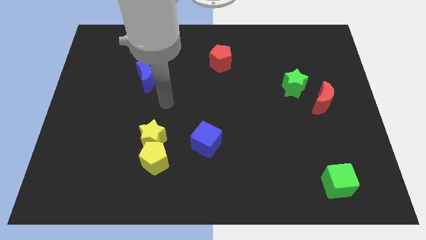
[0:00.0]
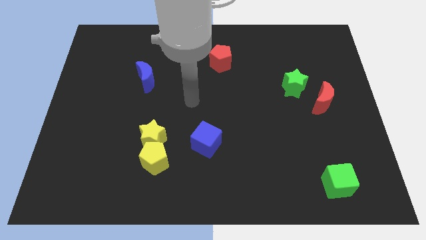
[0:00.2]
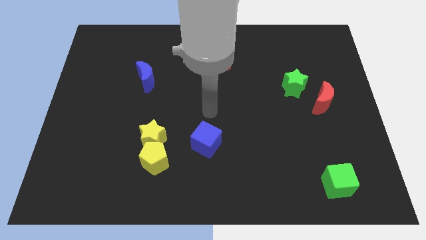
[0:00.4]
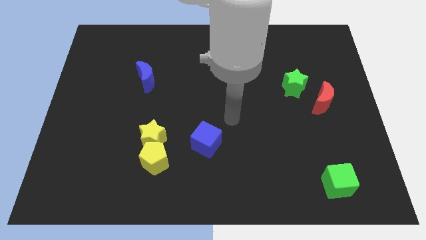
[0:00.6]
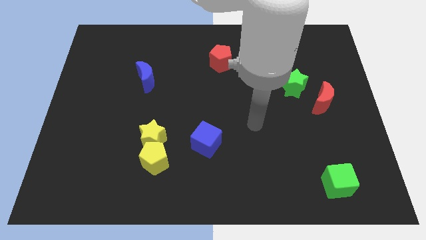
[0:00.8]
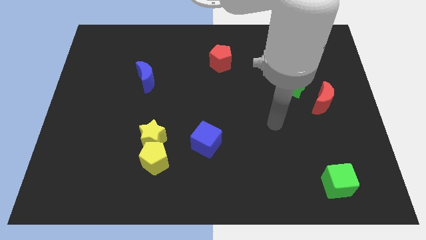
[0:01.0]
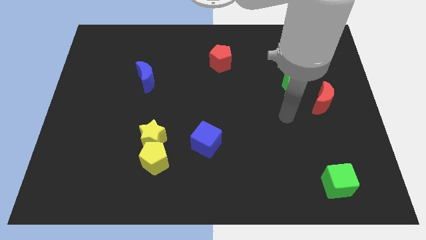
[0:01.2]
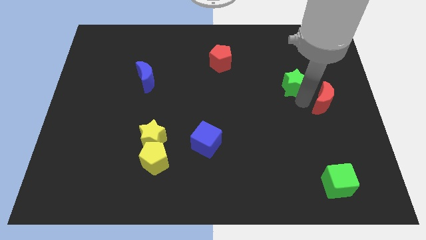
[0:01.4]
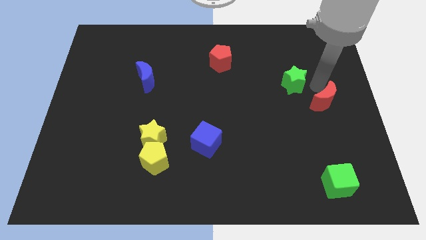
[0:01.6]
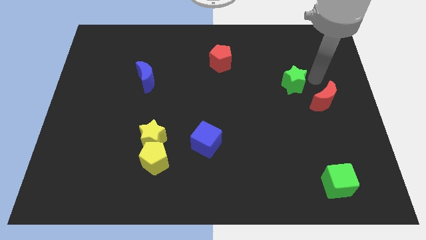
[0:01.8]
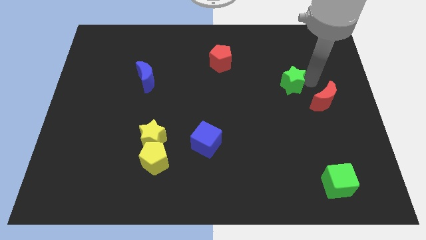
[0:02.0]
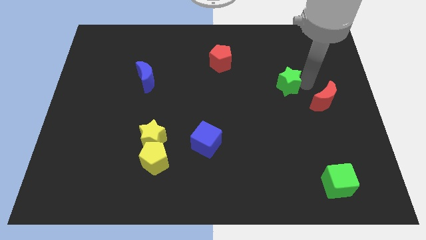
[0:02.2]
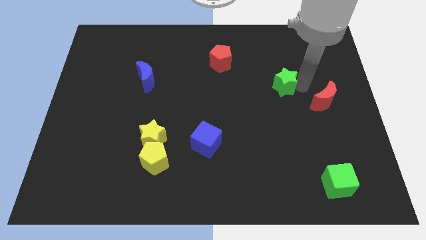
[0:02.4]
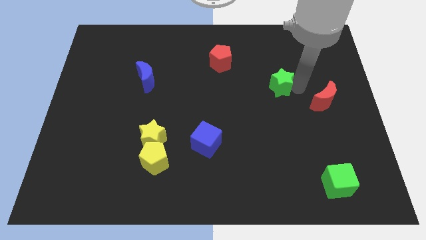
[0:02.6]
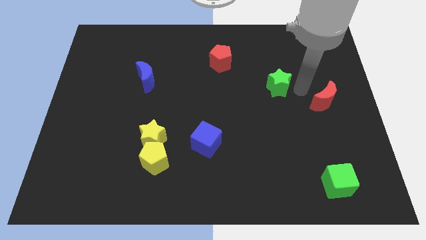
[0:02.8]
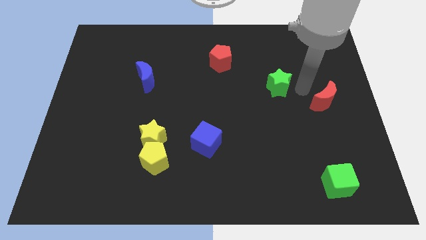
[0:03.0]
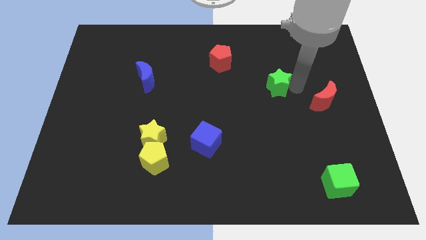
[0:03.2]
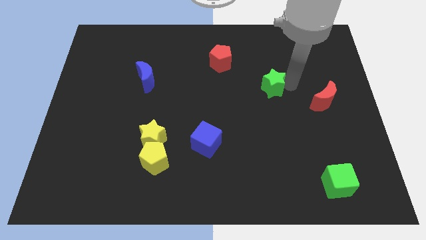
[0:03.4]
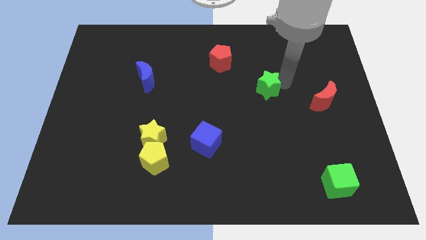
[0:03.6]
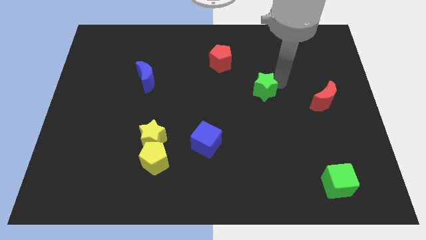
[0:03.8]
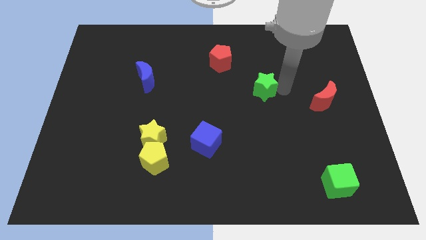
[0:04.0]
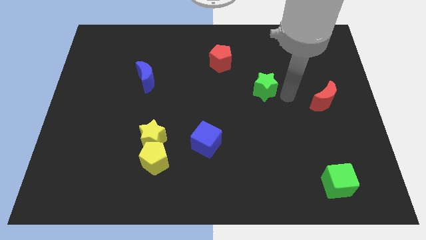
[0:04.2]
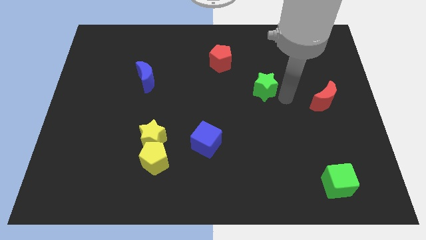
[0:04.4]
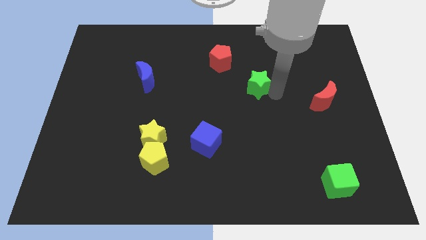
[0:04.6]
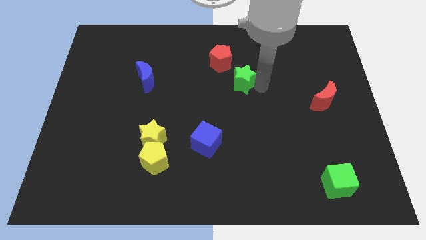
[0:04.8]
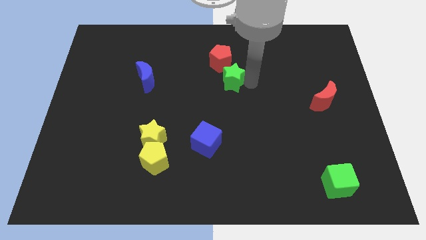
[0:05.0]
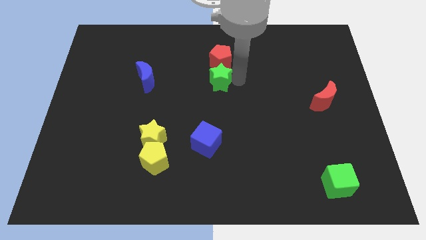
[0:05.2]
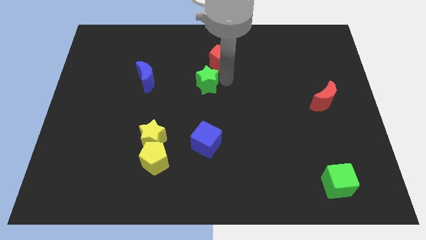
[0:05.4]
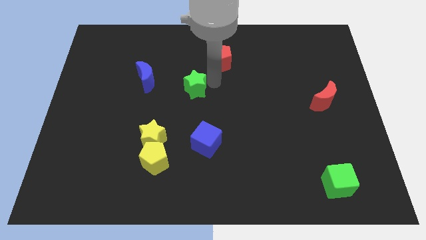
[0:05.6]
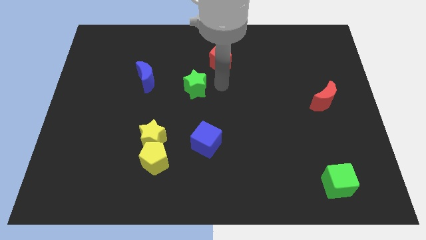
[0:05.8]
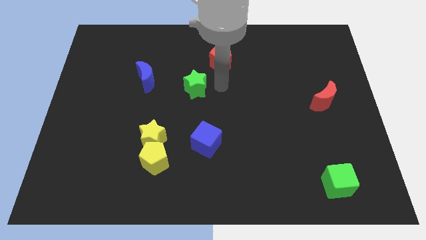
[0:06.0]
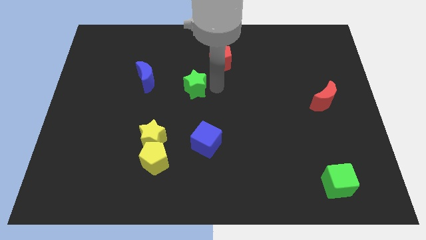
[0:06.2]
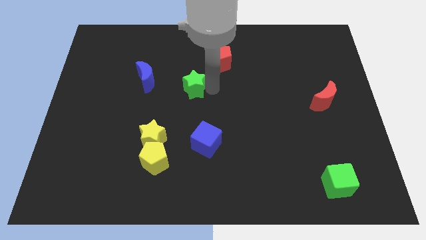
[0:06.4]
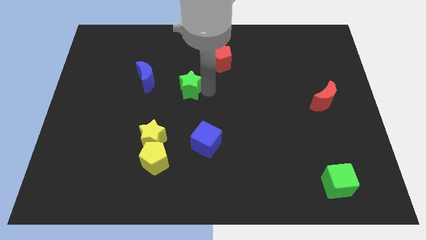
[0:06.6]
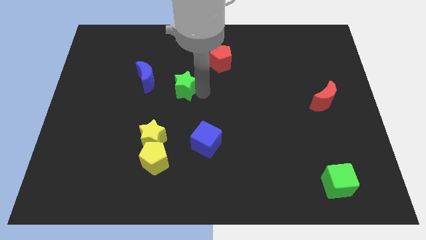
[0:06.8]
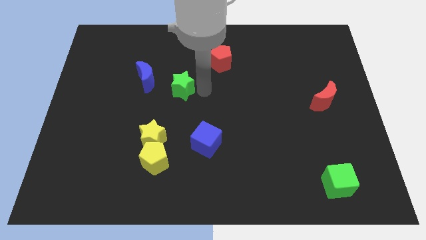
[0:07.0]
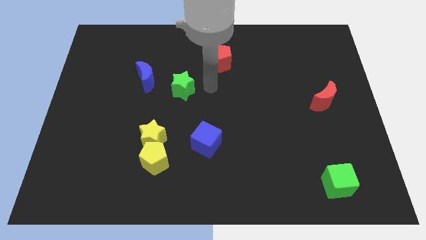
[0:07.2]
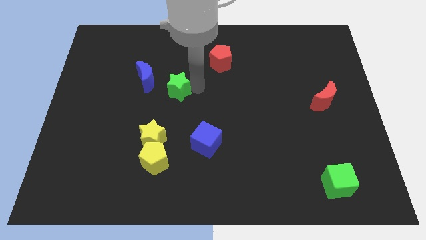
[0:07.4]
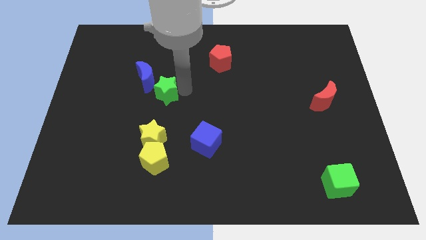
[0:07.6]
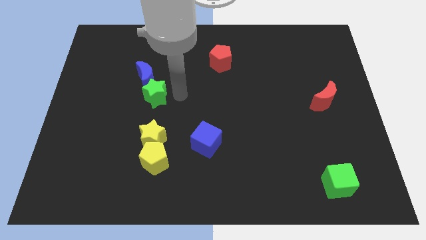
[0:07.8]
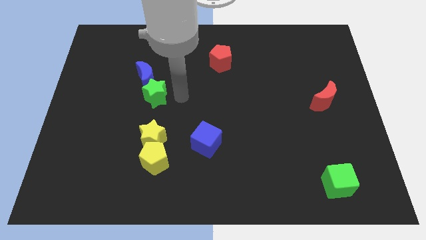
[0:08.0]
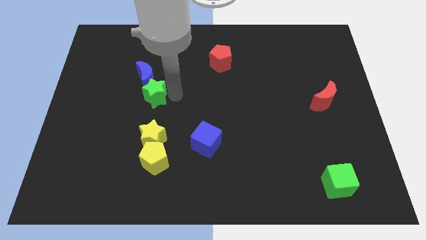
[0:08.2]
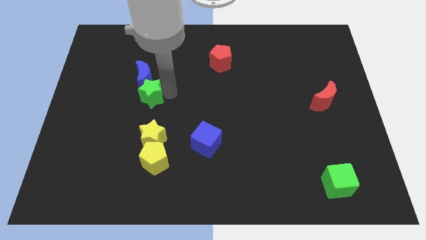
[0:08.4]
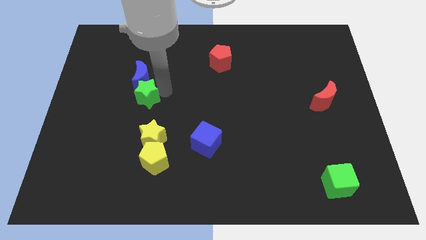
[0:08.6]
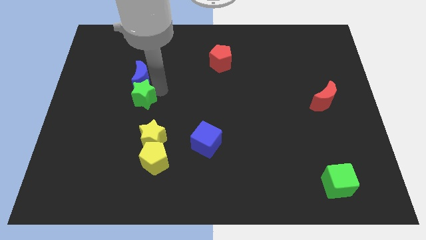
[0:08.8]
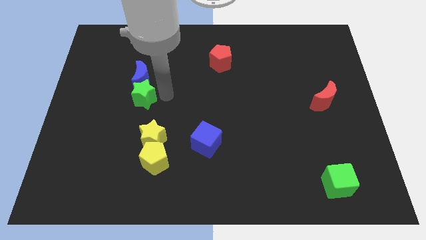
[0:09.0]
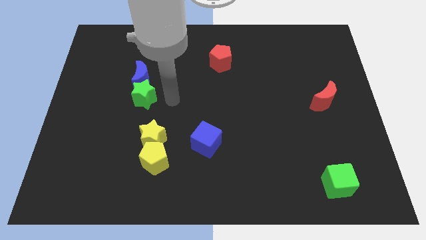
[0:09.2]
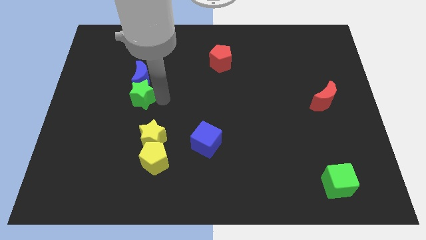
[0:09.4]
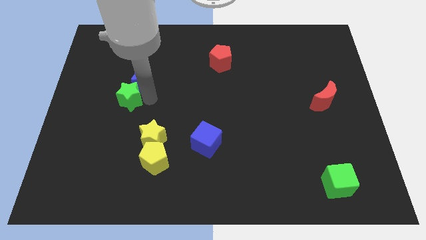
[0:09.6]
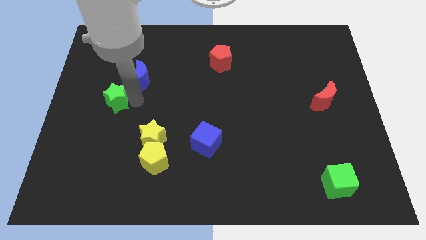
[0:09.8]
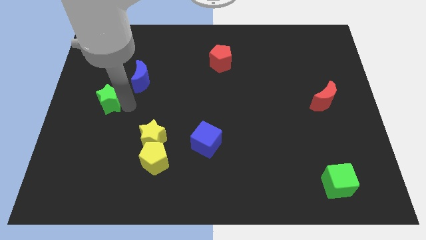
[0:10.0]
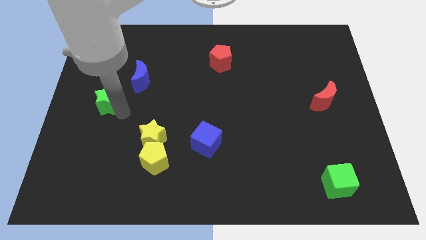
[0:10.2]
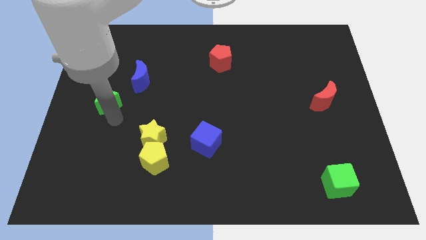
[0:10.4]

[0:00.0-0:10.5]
slide the green star to the left side

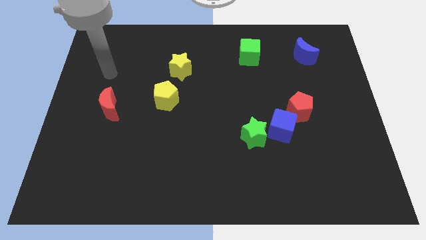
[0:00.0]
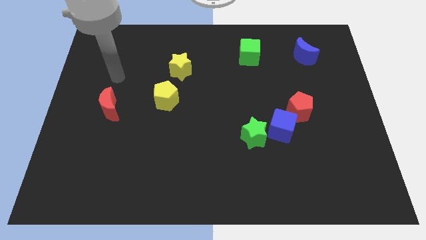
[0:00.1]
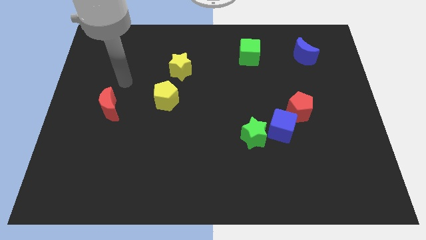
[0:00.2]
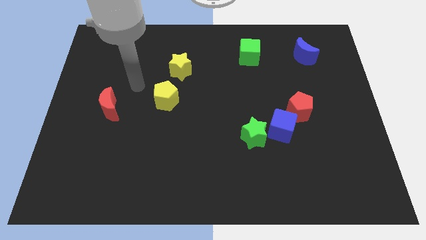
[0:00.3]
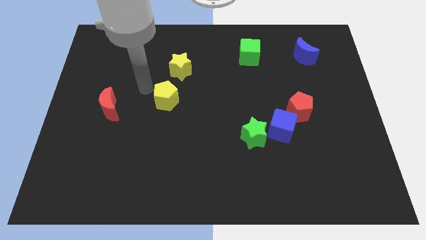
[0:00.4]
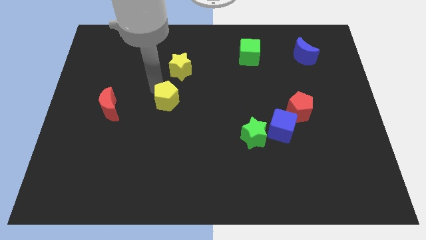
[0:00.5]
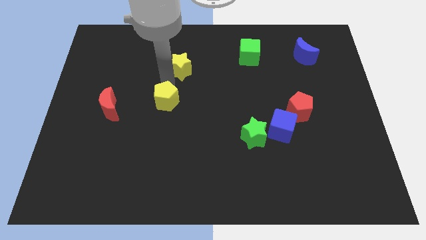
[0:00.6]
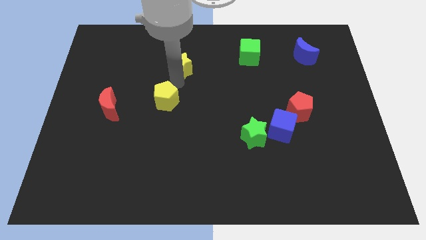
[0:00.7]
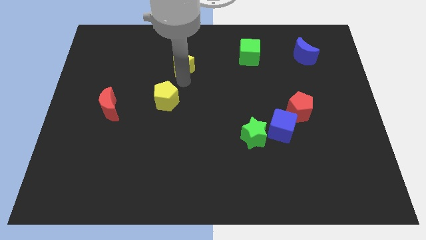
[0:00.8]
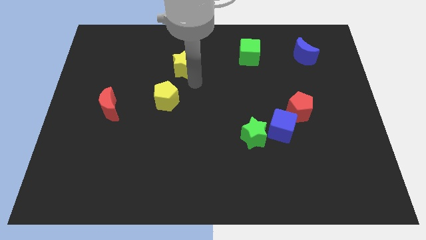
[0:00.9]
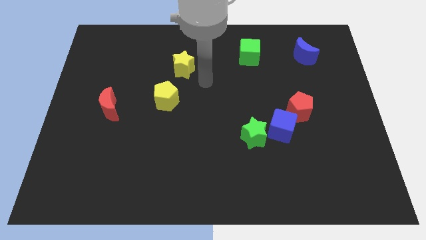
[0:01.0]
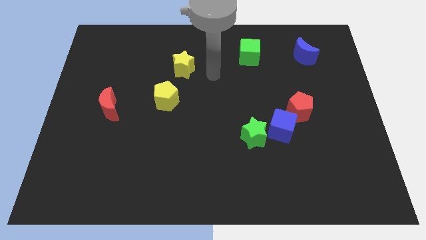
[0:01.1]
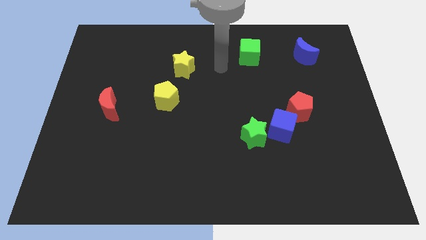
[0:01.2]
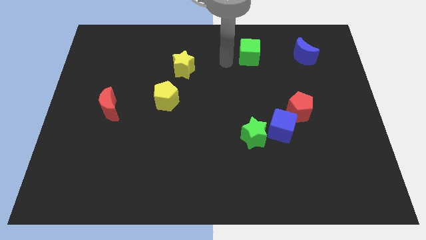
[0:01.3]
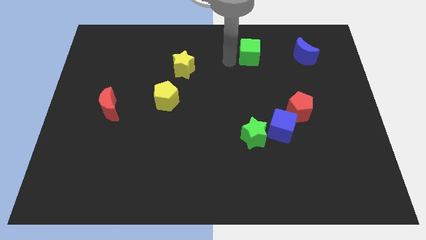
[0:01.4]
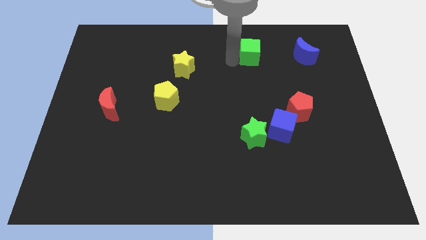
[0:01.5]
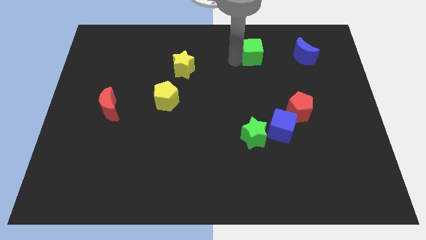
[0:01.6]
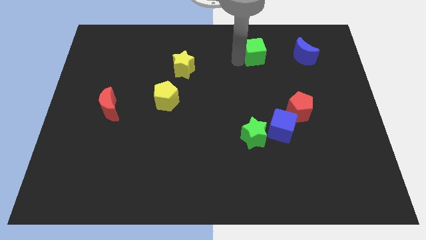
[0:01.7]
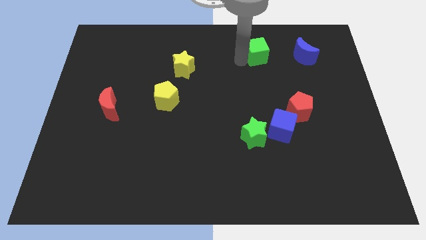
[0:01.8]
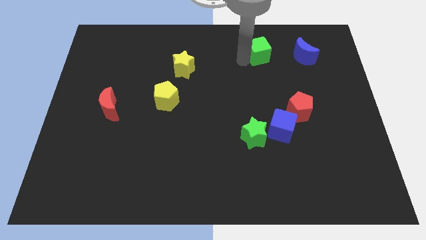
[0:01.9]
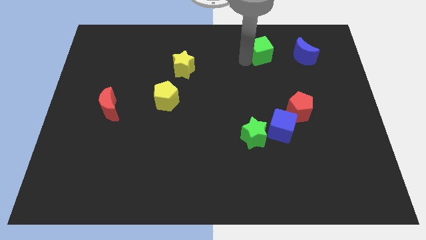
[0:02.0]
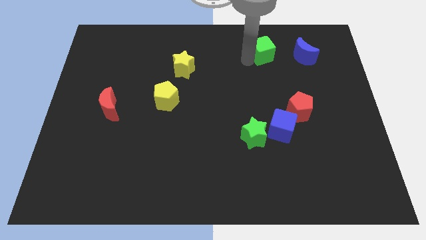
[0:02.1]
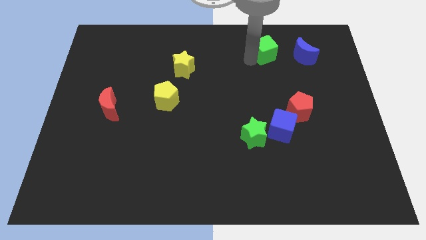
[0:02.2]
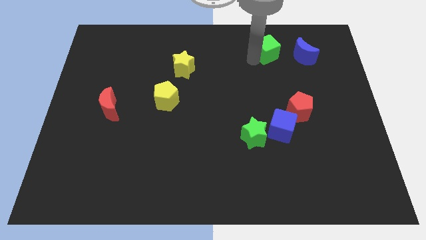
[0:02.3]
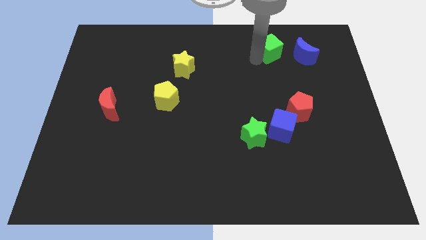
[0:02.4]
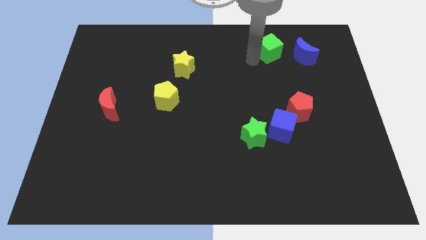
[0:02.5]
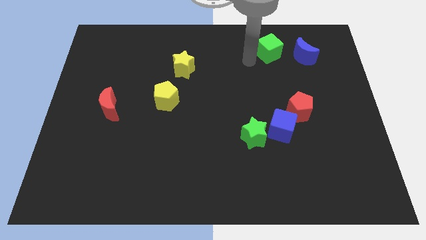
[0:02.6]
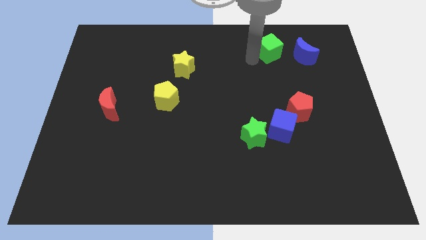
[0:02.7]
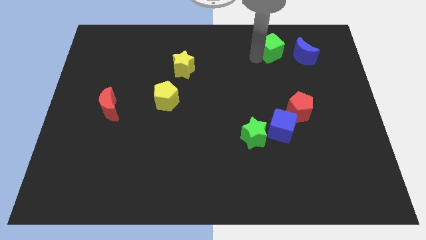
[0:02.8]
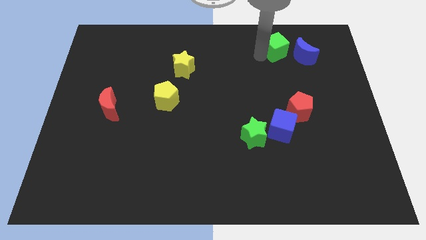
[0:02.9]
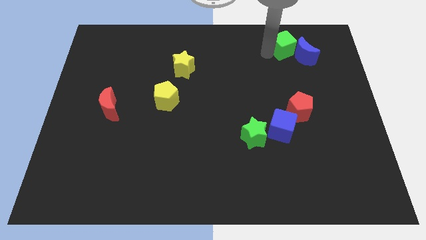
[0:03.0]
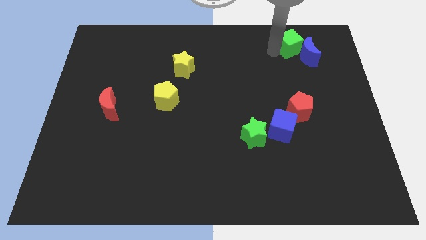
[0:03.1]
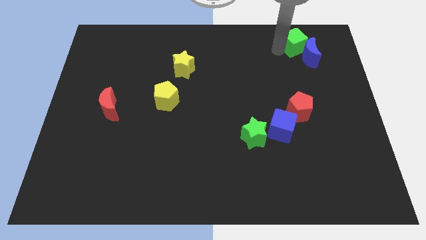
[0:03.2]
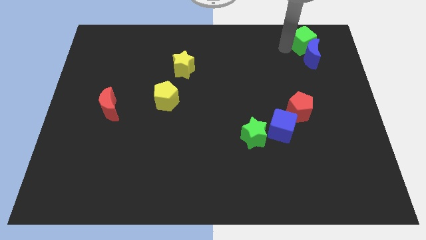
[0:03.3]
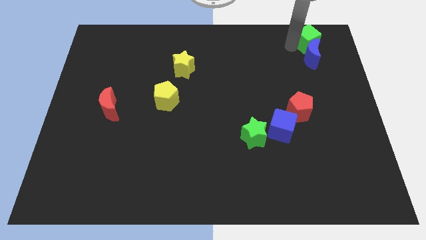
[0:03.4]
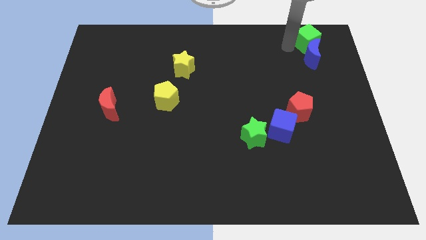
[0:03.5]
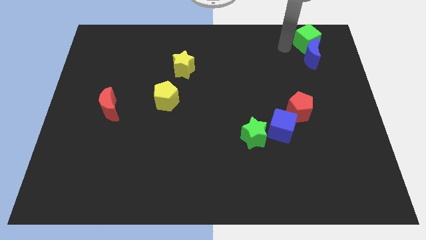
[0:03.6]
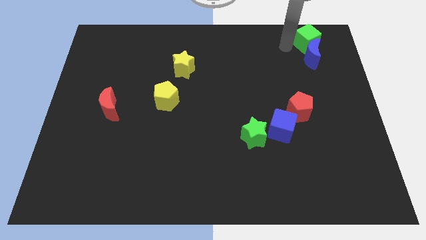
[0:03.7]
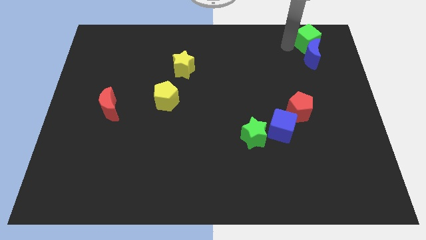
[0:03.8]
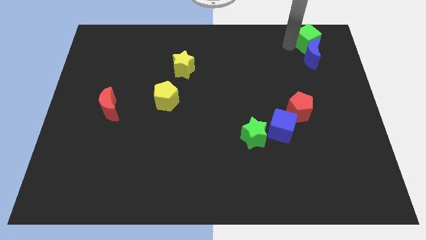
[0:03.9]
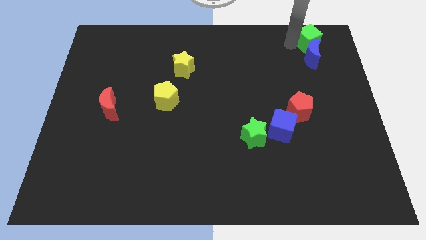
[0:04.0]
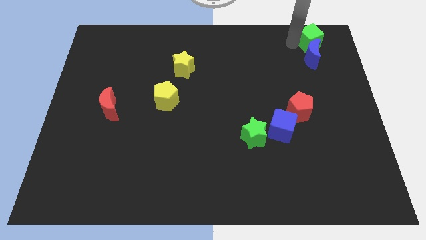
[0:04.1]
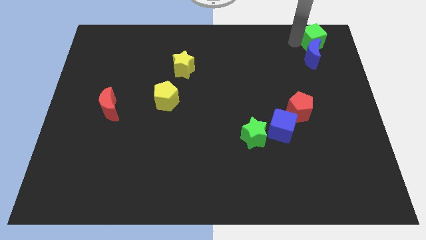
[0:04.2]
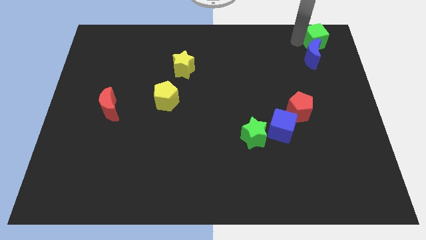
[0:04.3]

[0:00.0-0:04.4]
push the green cube to the top right
